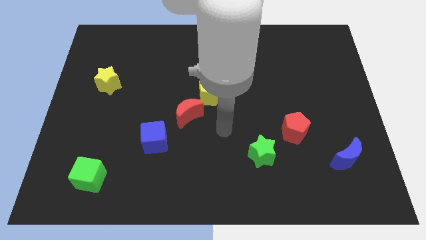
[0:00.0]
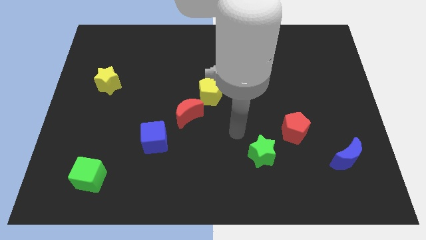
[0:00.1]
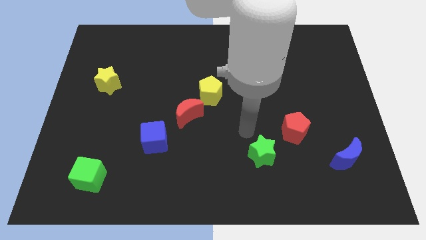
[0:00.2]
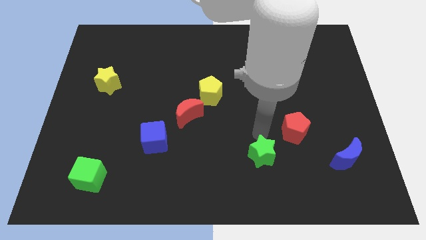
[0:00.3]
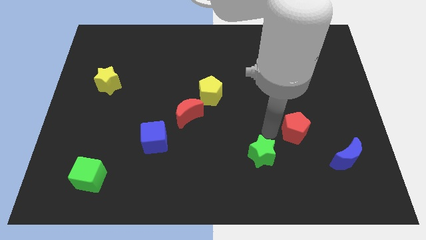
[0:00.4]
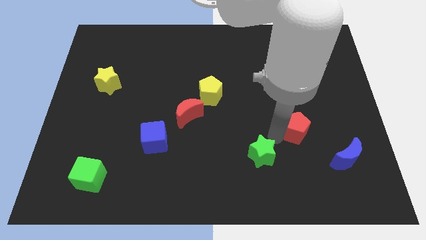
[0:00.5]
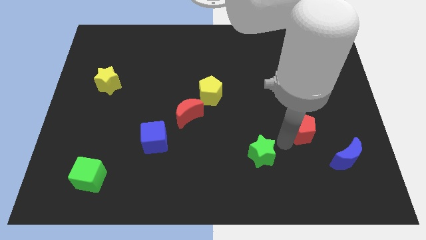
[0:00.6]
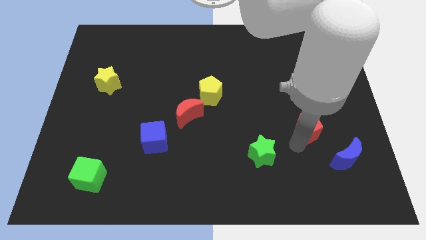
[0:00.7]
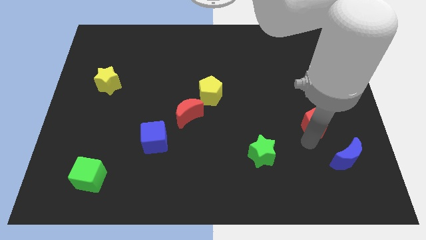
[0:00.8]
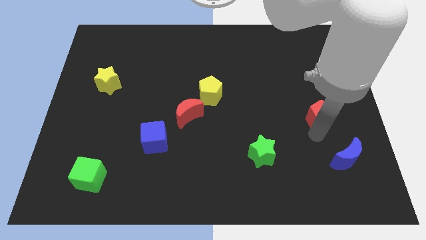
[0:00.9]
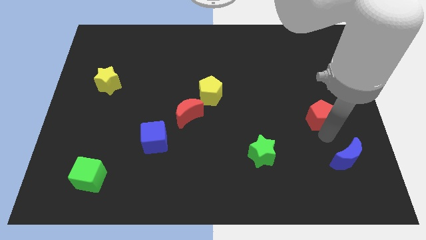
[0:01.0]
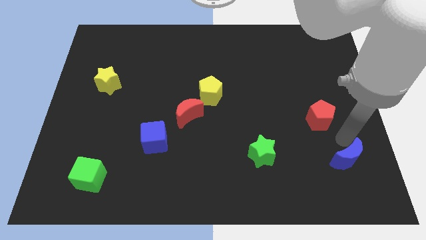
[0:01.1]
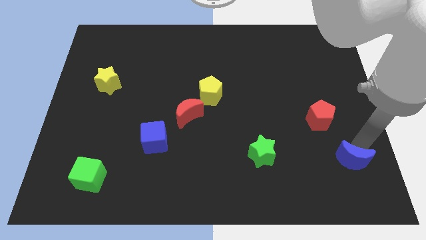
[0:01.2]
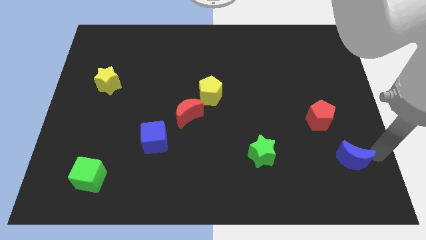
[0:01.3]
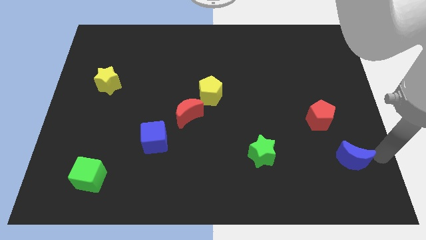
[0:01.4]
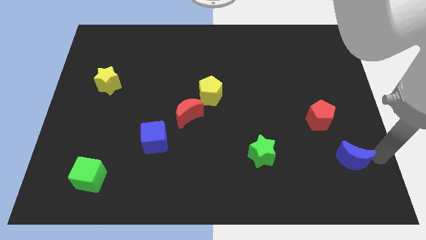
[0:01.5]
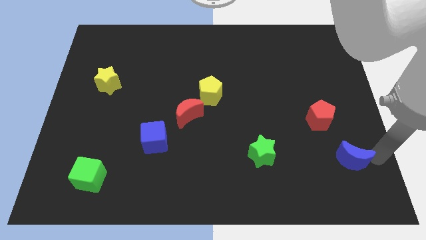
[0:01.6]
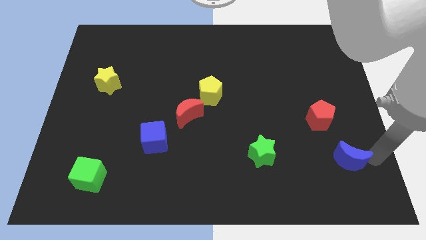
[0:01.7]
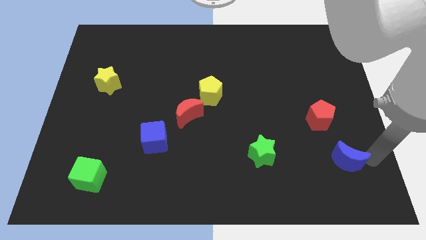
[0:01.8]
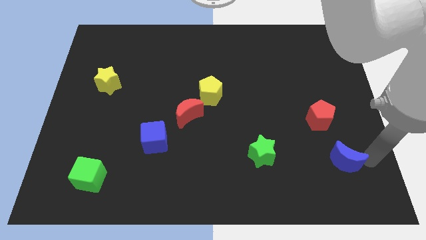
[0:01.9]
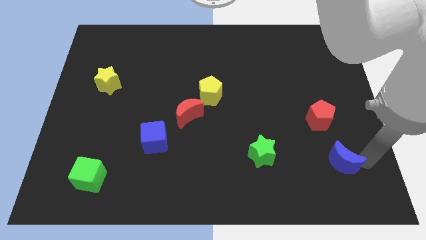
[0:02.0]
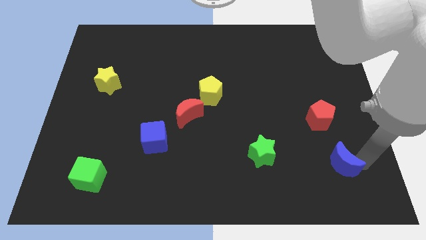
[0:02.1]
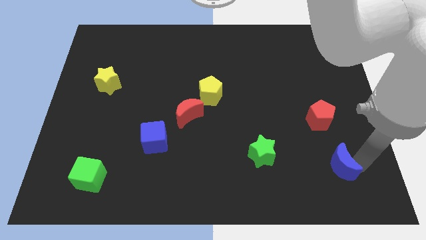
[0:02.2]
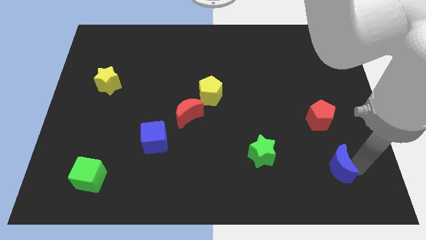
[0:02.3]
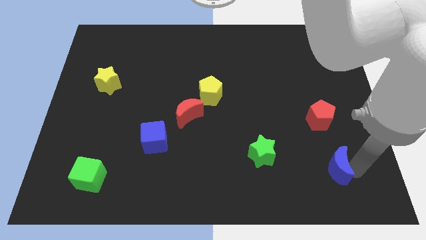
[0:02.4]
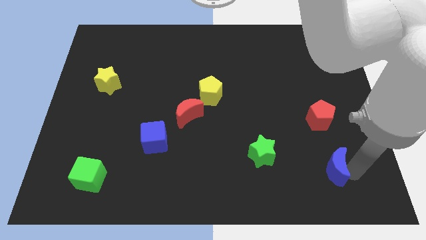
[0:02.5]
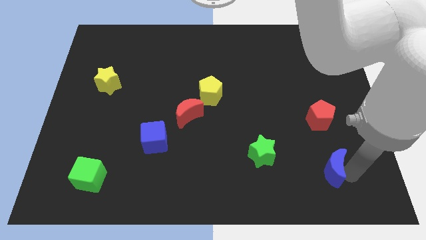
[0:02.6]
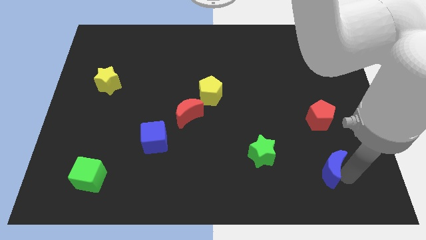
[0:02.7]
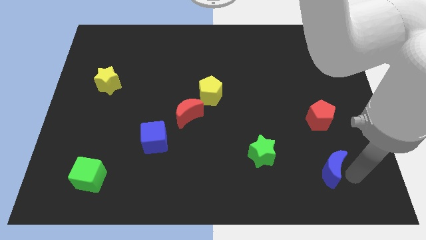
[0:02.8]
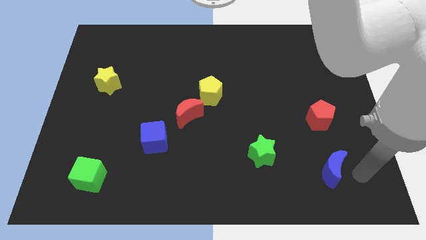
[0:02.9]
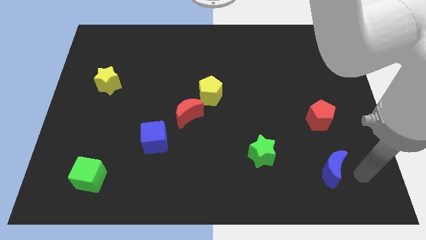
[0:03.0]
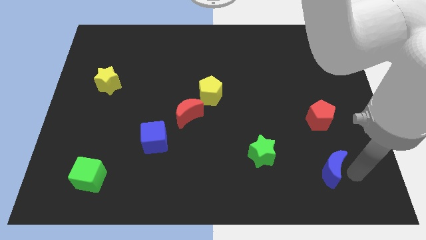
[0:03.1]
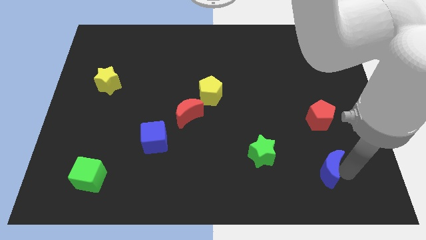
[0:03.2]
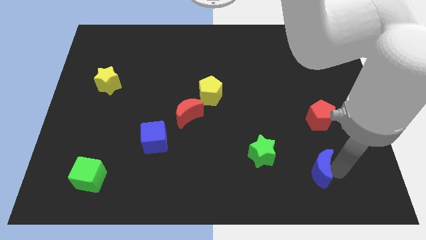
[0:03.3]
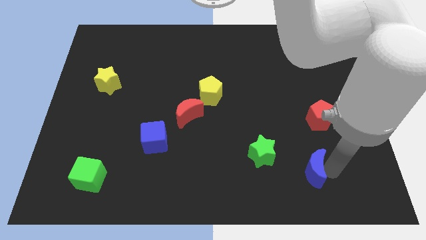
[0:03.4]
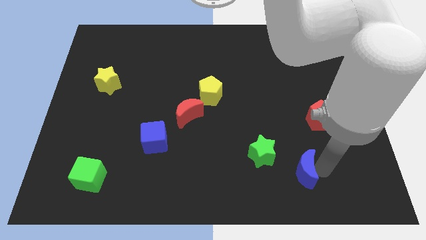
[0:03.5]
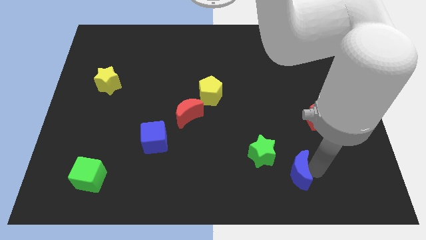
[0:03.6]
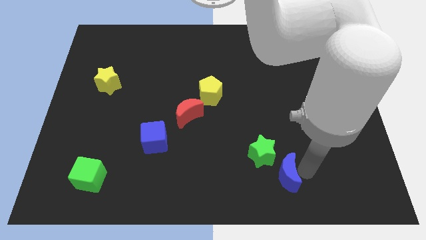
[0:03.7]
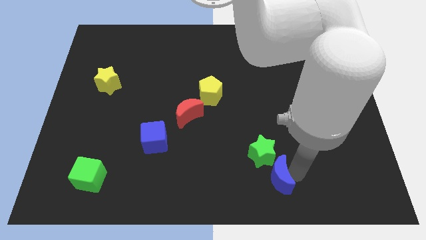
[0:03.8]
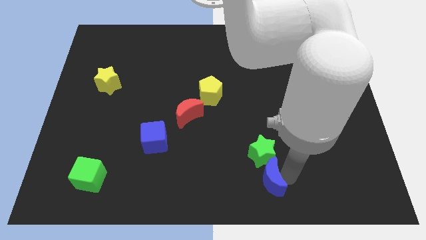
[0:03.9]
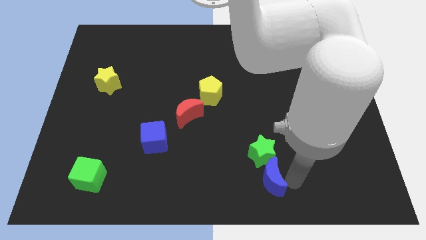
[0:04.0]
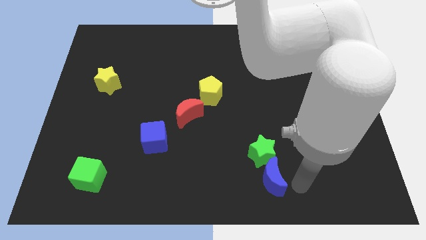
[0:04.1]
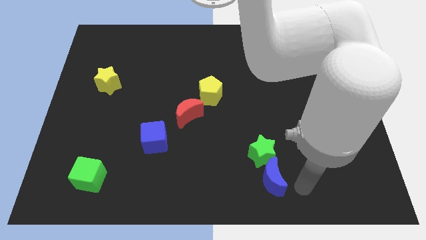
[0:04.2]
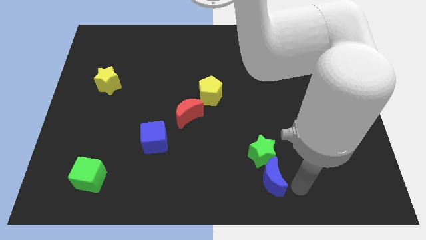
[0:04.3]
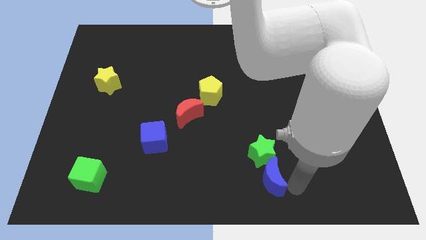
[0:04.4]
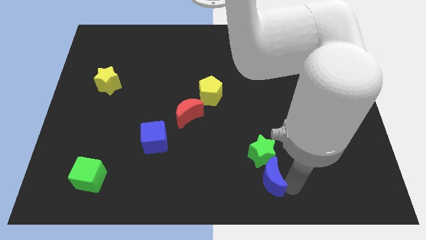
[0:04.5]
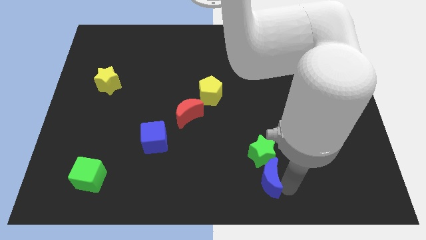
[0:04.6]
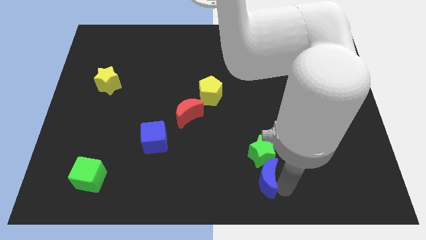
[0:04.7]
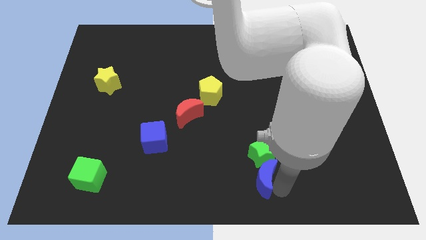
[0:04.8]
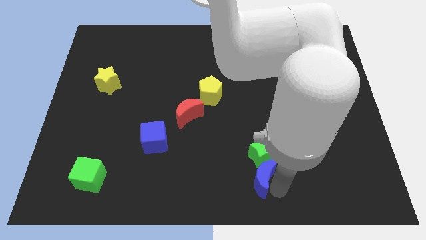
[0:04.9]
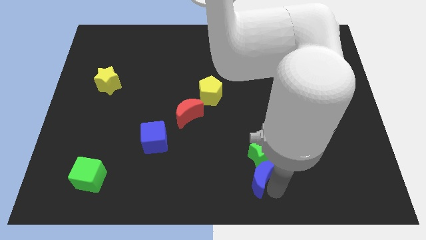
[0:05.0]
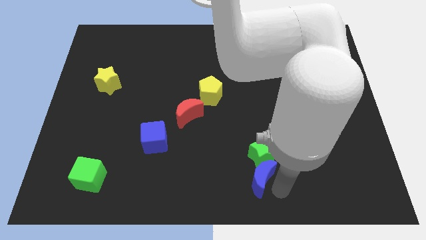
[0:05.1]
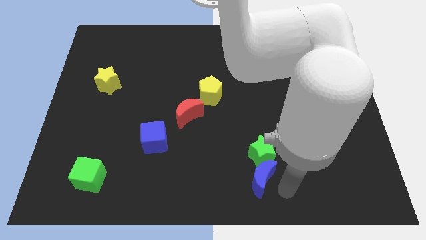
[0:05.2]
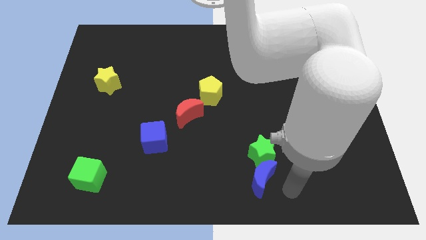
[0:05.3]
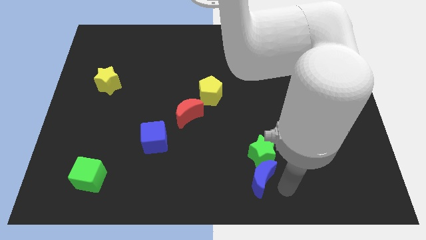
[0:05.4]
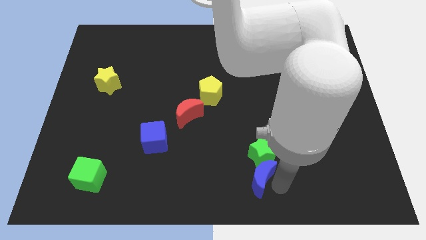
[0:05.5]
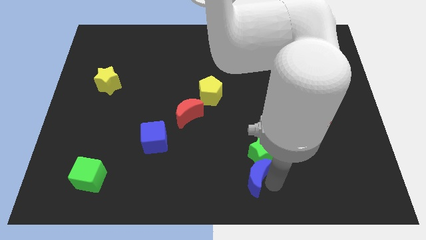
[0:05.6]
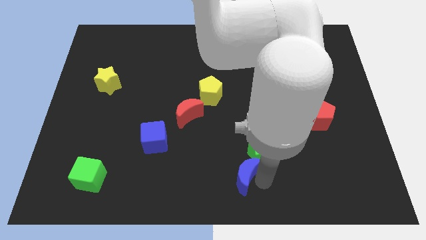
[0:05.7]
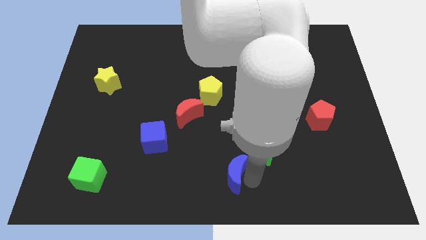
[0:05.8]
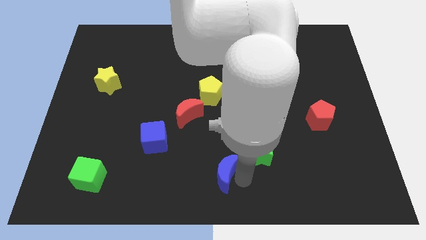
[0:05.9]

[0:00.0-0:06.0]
push the blue moon just left of the green star

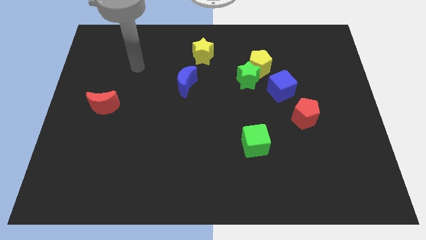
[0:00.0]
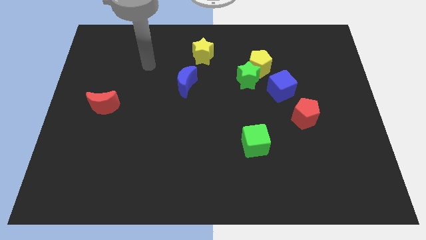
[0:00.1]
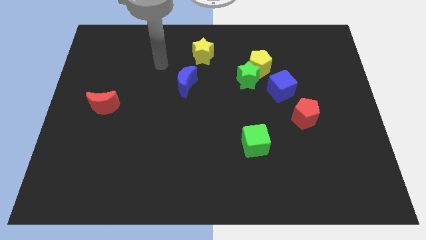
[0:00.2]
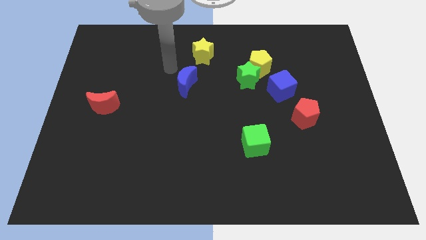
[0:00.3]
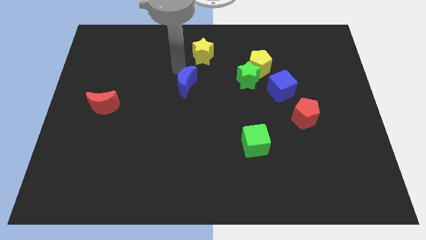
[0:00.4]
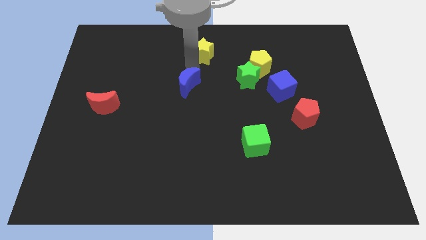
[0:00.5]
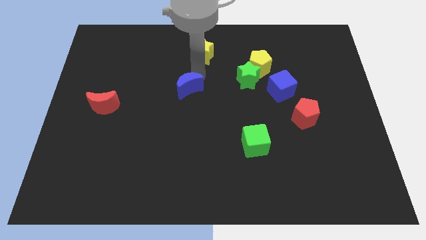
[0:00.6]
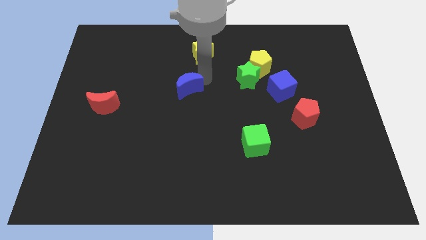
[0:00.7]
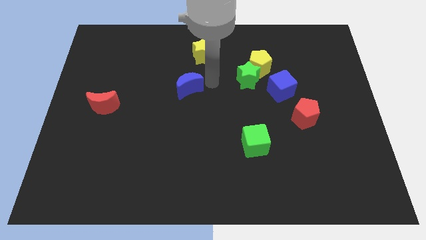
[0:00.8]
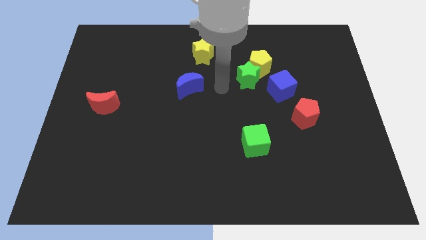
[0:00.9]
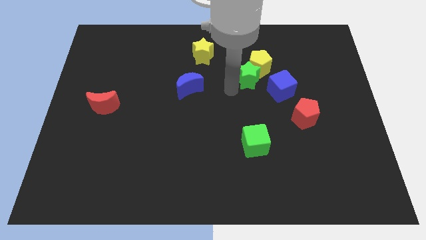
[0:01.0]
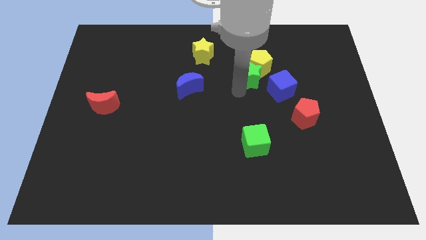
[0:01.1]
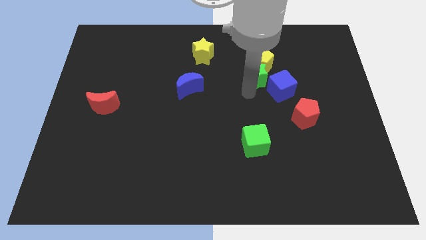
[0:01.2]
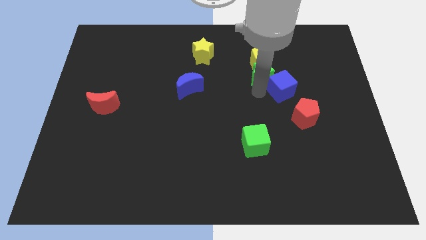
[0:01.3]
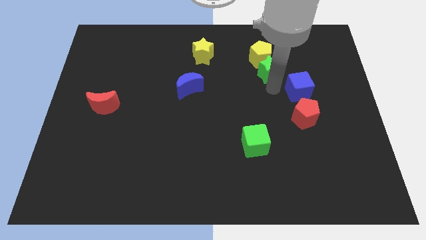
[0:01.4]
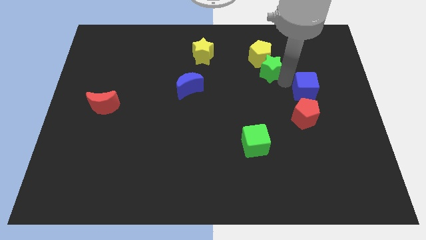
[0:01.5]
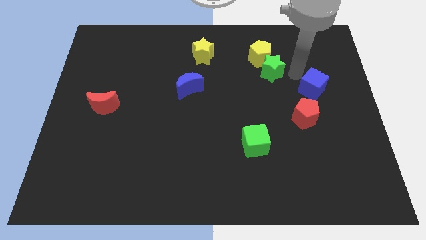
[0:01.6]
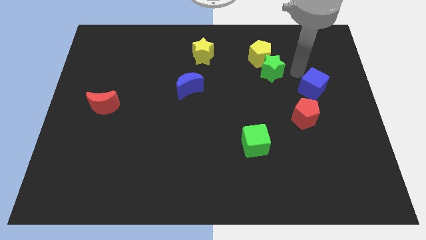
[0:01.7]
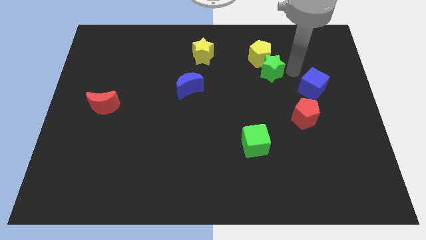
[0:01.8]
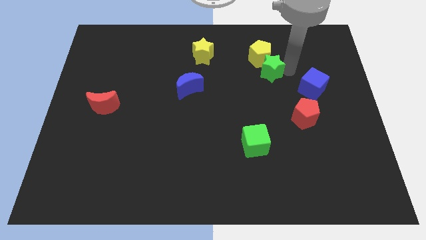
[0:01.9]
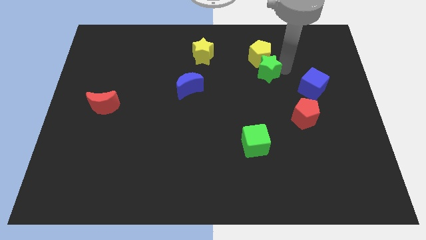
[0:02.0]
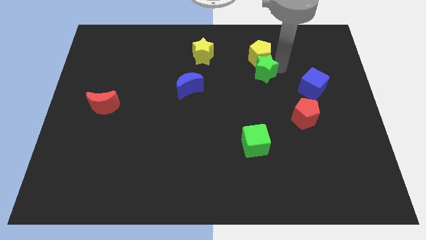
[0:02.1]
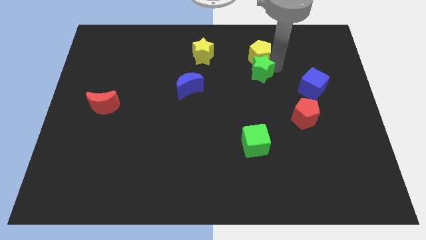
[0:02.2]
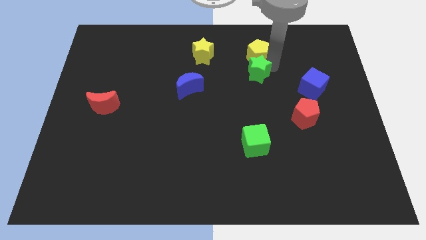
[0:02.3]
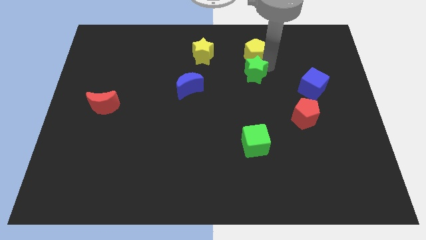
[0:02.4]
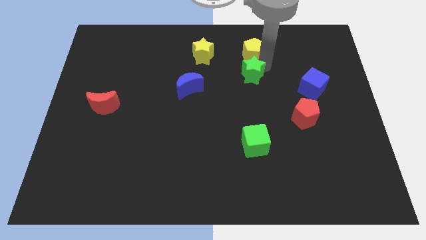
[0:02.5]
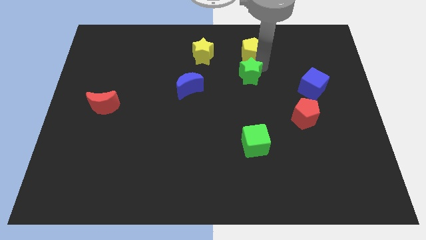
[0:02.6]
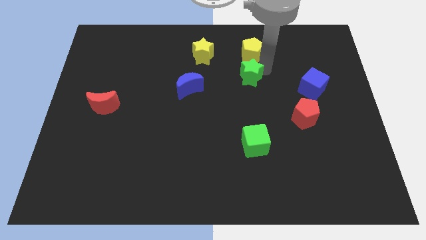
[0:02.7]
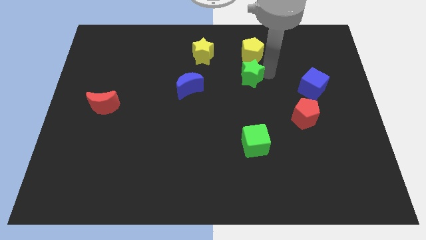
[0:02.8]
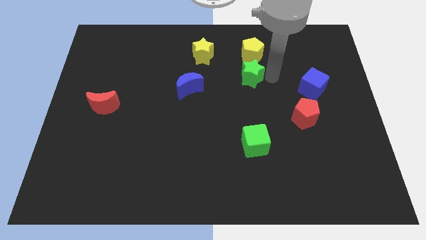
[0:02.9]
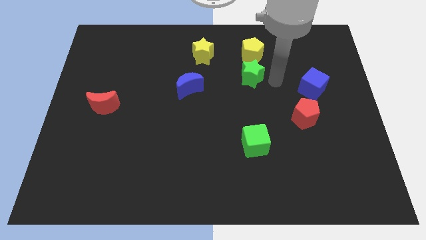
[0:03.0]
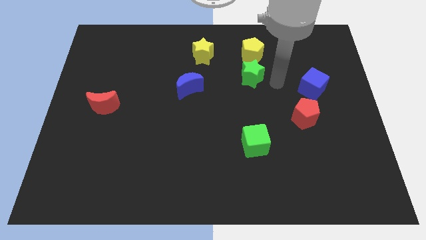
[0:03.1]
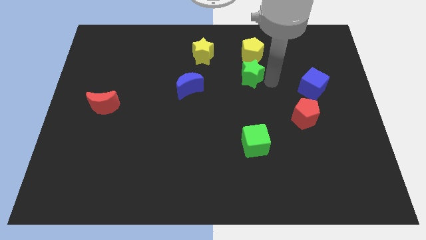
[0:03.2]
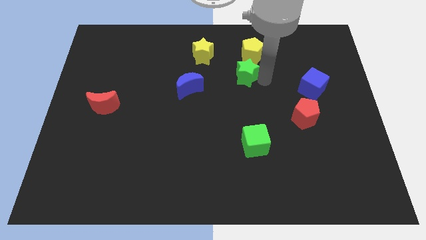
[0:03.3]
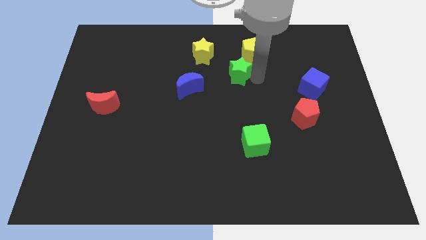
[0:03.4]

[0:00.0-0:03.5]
put the green star to the bottom right of the yellow star
